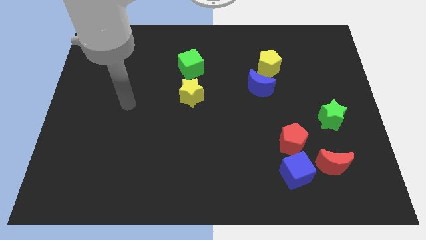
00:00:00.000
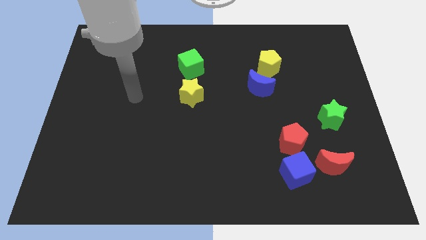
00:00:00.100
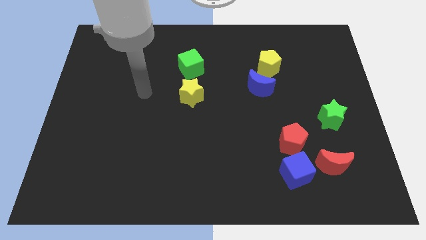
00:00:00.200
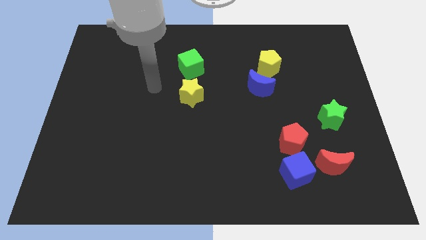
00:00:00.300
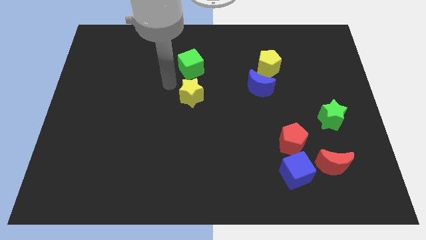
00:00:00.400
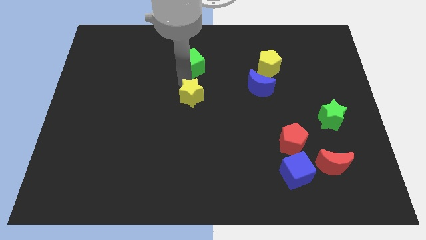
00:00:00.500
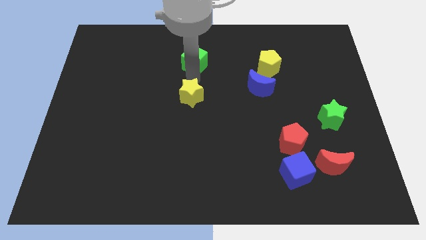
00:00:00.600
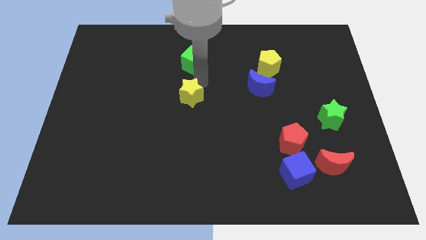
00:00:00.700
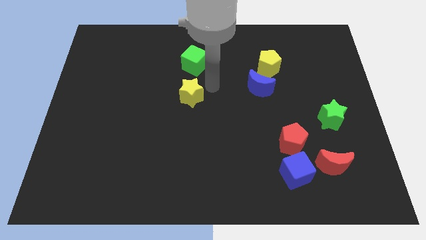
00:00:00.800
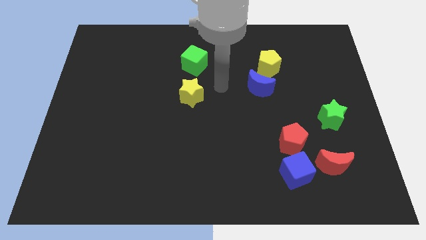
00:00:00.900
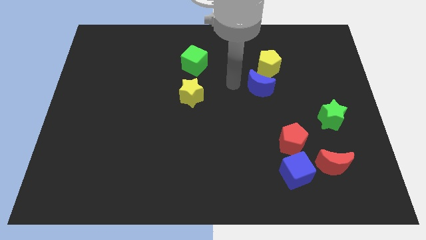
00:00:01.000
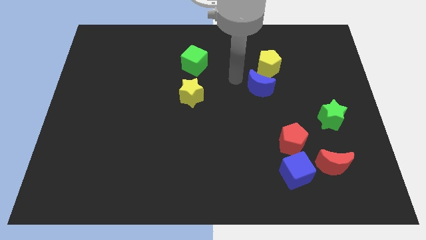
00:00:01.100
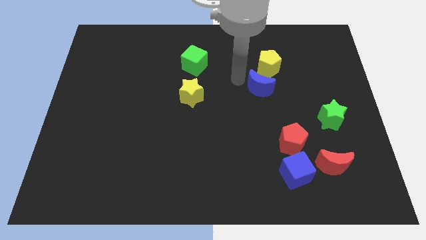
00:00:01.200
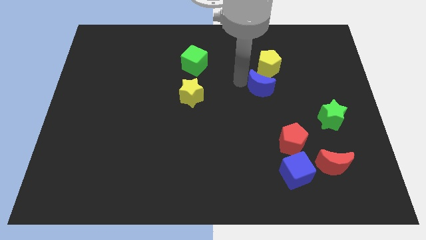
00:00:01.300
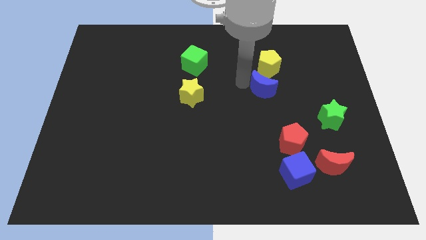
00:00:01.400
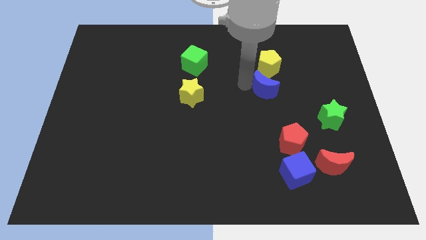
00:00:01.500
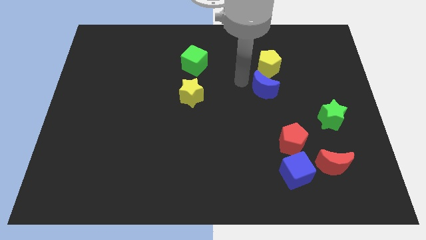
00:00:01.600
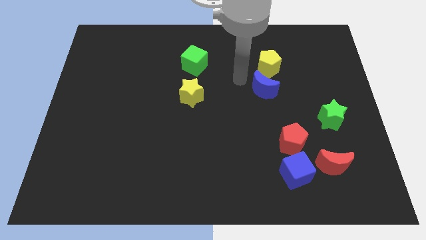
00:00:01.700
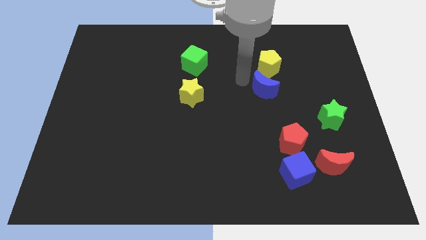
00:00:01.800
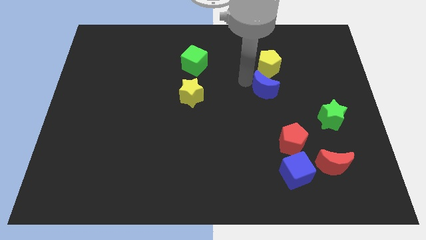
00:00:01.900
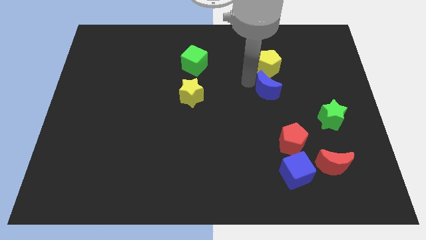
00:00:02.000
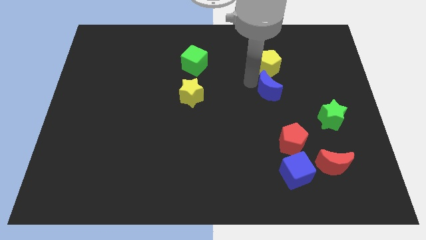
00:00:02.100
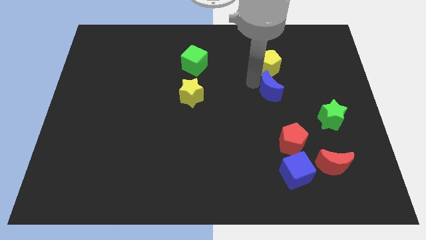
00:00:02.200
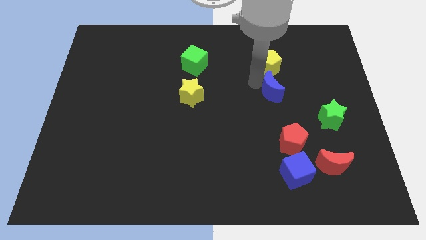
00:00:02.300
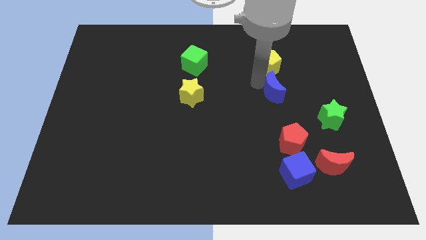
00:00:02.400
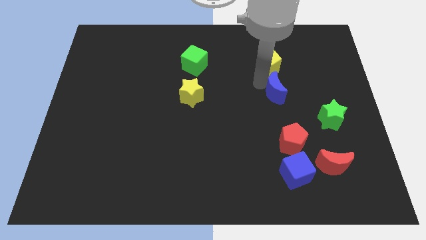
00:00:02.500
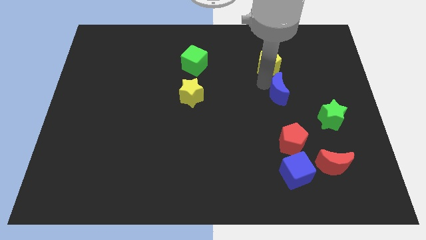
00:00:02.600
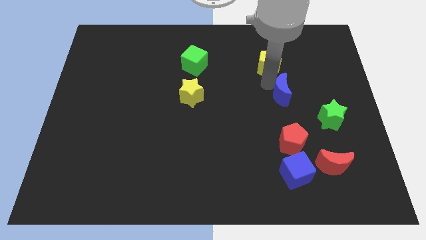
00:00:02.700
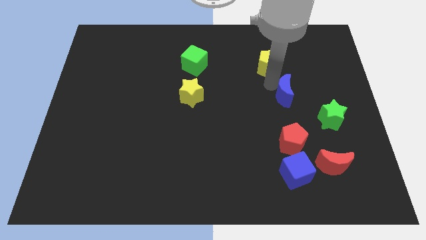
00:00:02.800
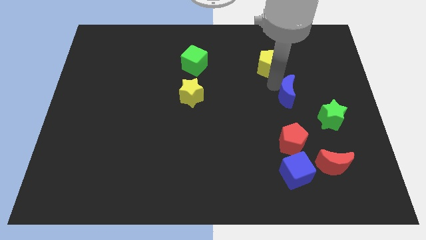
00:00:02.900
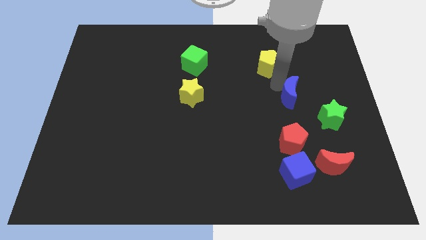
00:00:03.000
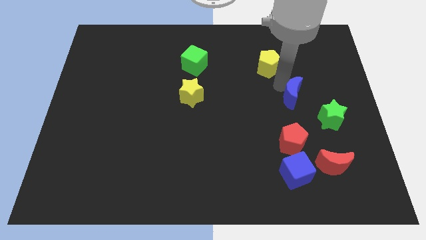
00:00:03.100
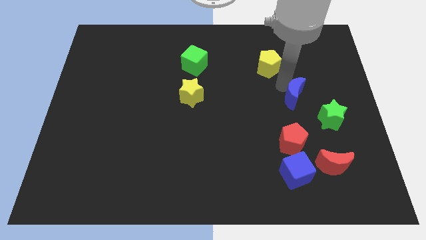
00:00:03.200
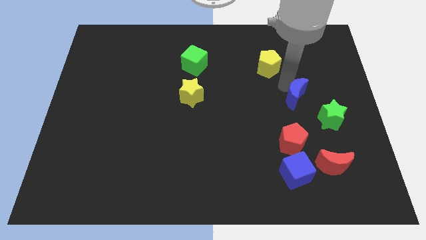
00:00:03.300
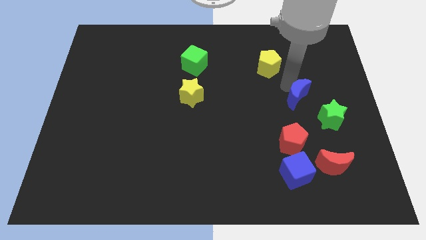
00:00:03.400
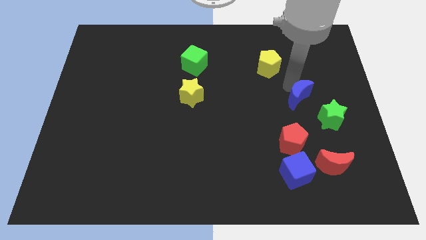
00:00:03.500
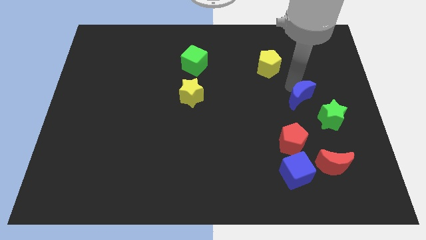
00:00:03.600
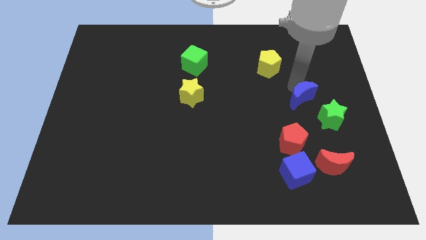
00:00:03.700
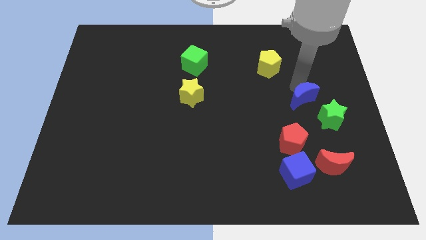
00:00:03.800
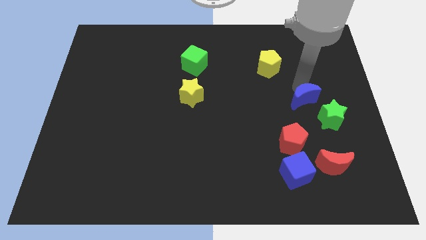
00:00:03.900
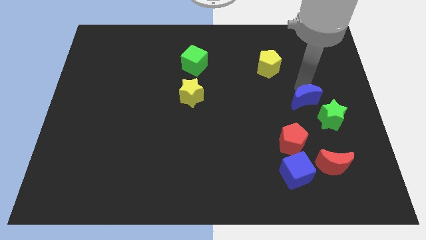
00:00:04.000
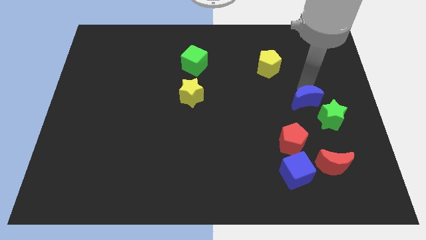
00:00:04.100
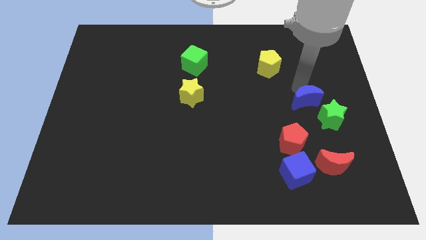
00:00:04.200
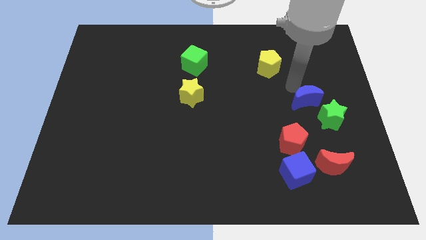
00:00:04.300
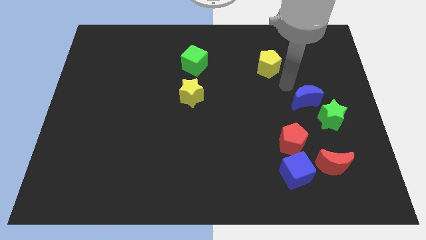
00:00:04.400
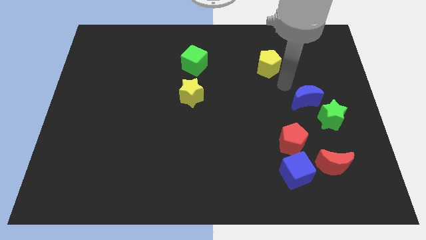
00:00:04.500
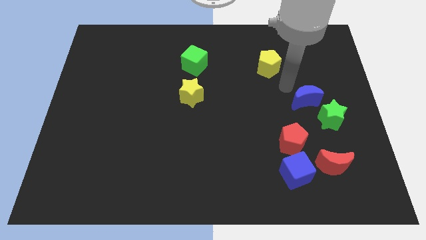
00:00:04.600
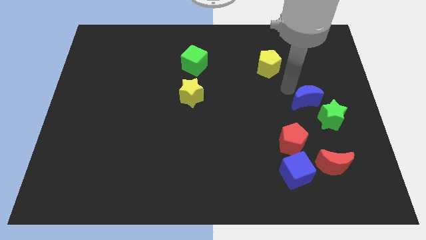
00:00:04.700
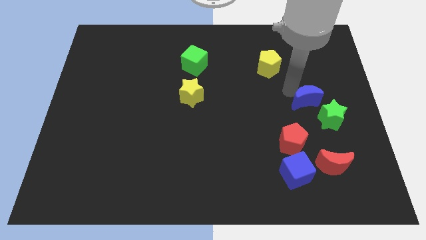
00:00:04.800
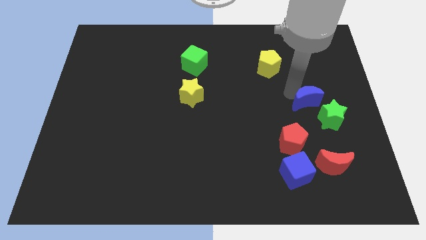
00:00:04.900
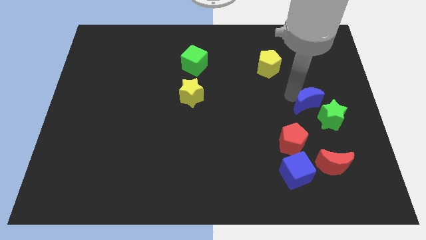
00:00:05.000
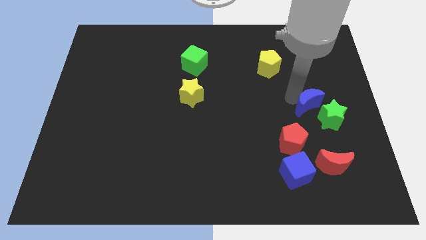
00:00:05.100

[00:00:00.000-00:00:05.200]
push the blue moon towards the green star

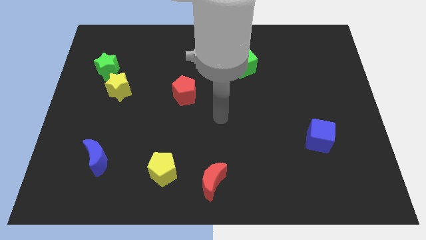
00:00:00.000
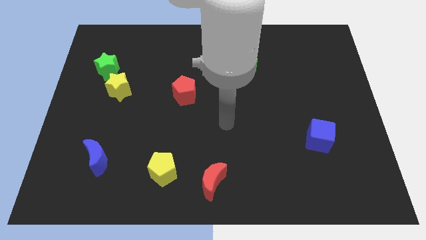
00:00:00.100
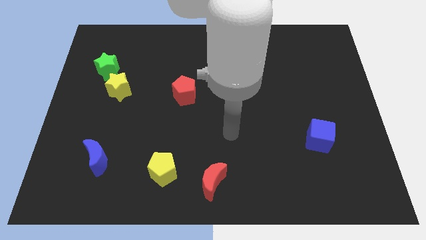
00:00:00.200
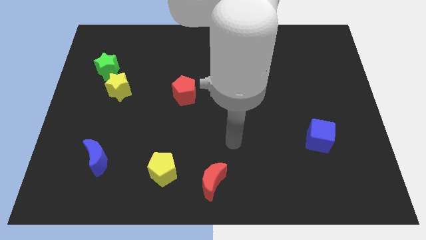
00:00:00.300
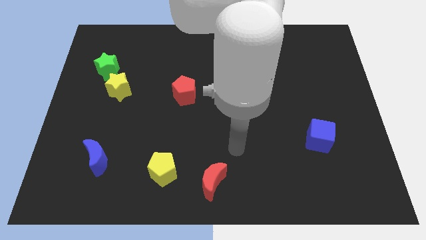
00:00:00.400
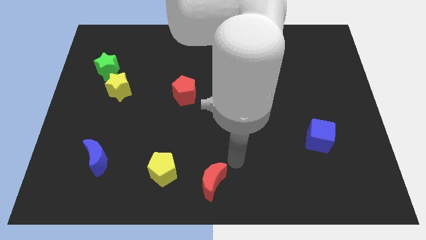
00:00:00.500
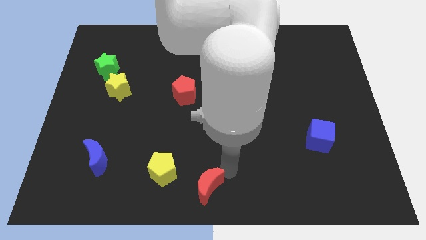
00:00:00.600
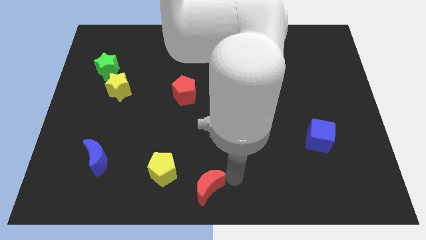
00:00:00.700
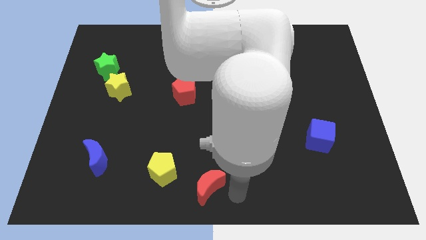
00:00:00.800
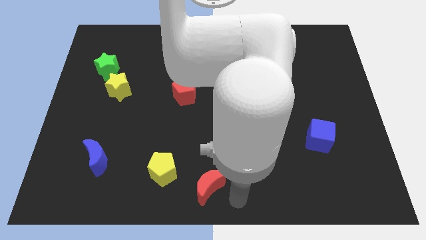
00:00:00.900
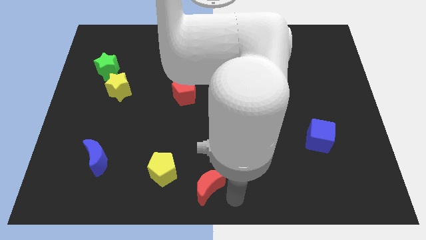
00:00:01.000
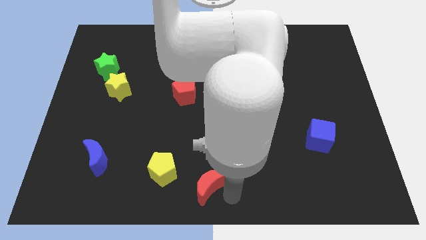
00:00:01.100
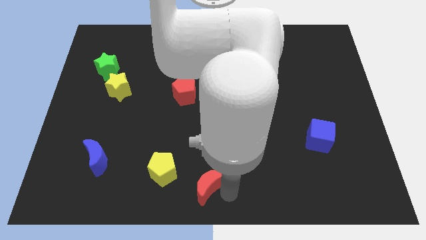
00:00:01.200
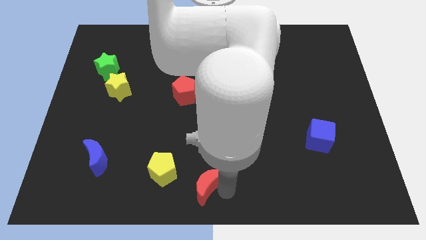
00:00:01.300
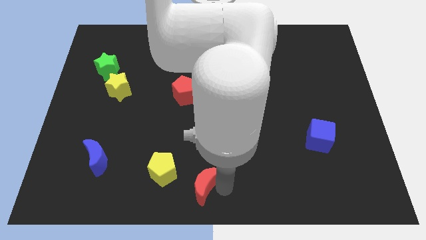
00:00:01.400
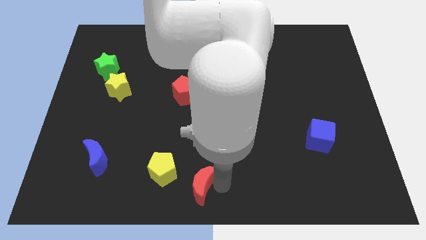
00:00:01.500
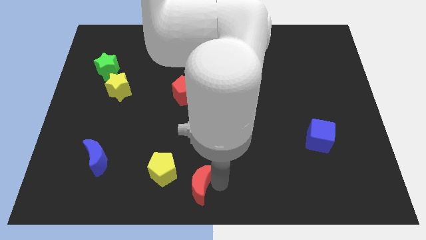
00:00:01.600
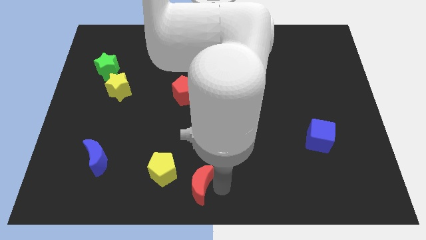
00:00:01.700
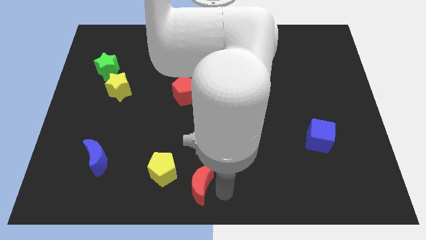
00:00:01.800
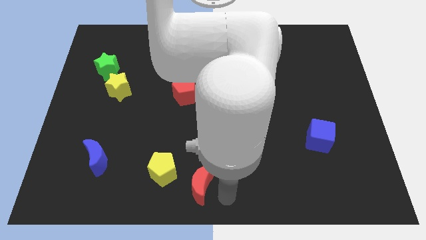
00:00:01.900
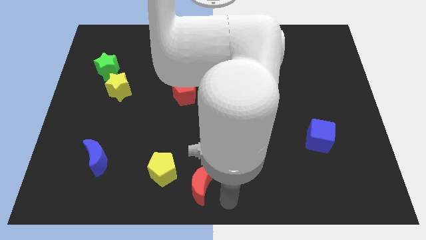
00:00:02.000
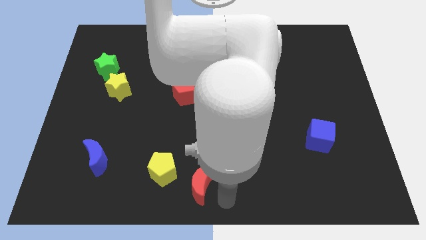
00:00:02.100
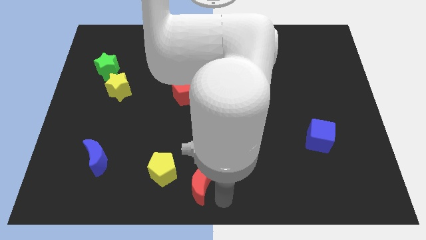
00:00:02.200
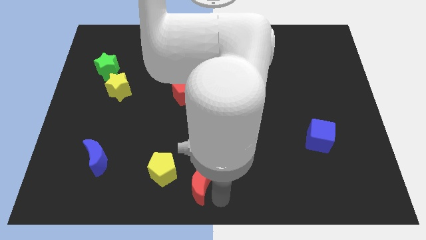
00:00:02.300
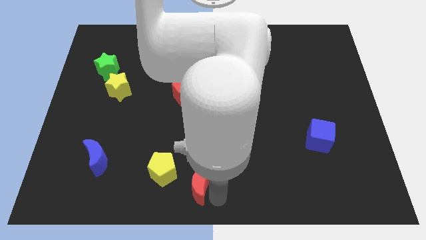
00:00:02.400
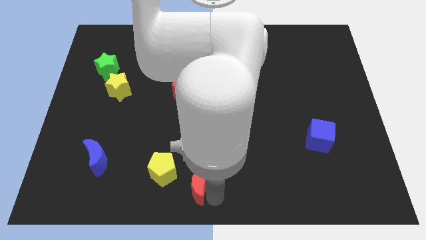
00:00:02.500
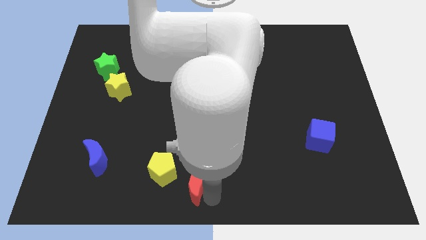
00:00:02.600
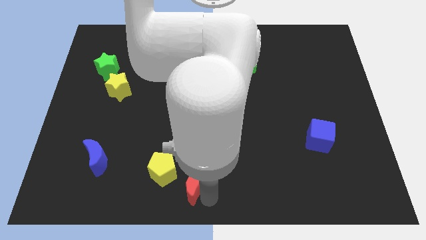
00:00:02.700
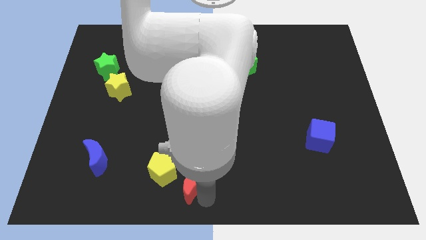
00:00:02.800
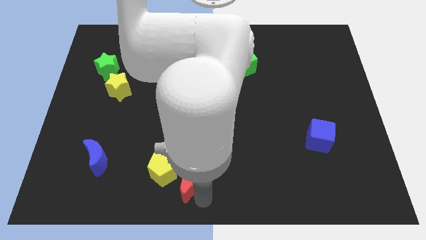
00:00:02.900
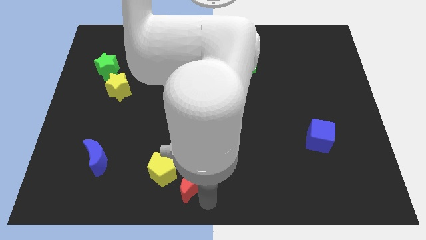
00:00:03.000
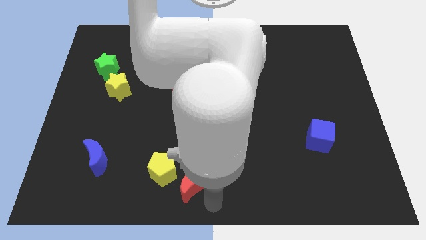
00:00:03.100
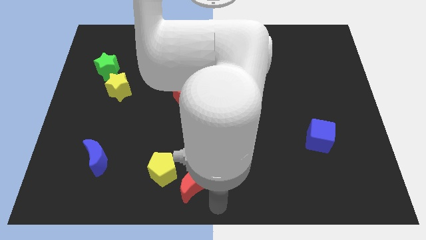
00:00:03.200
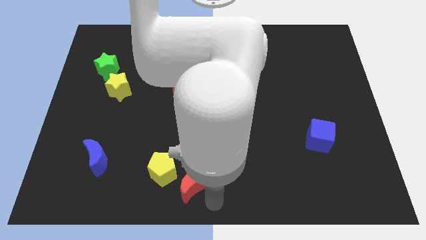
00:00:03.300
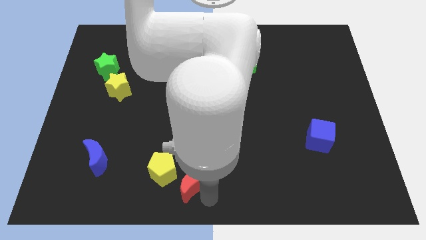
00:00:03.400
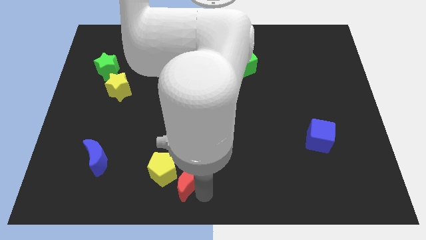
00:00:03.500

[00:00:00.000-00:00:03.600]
push the red moon next to the yellow pentagon
